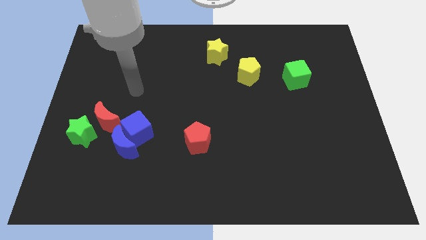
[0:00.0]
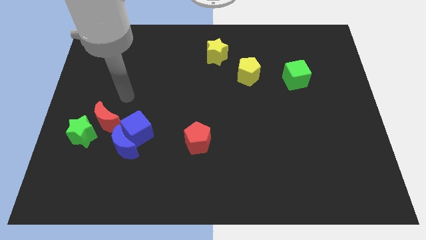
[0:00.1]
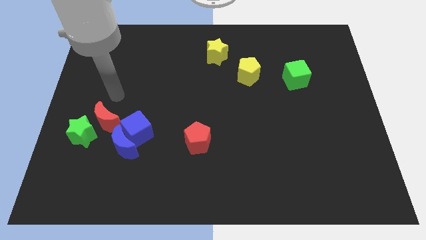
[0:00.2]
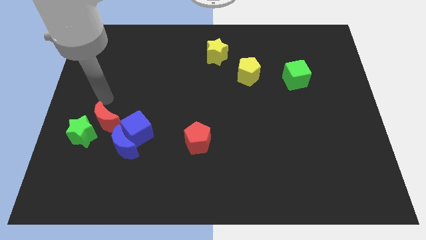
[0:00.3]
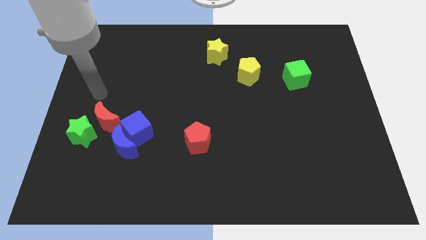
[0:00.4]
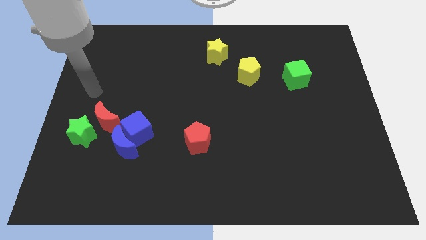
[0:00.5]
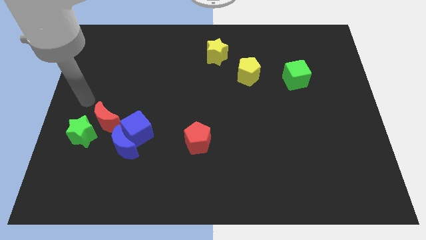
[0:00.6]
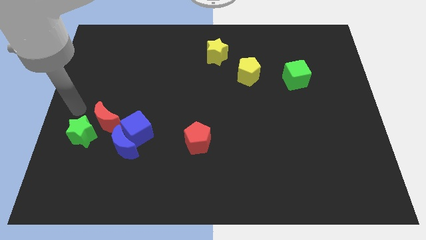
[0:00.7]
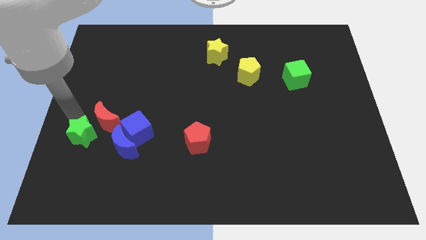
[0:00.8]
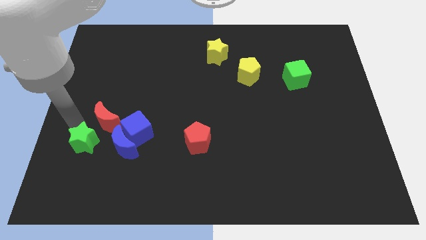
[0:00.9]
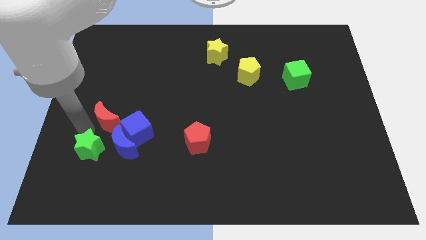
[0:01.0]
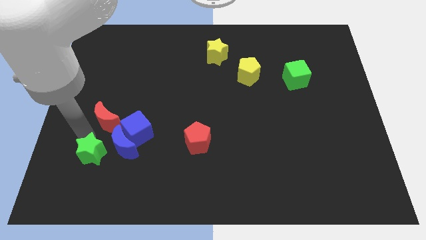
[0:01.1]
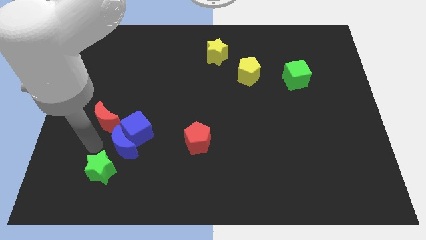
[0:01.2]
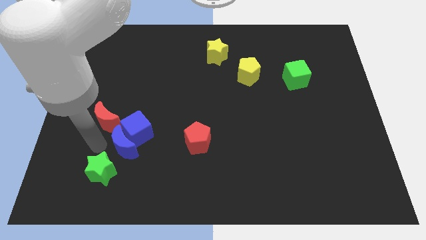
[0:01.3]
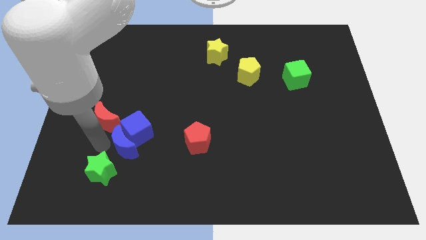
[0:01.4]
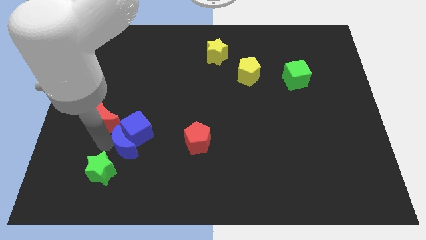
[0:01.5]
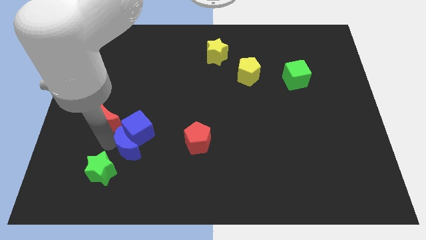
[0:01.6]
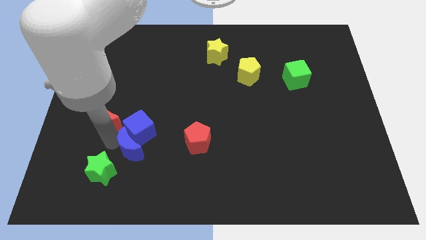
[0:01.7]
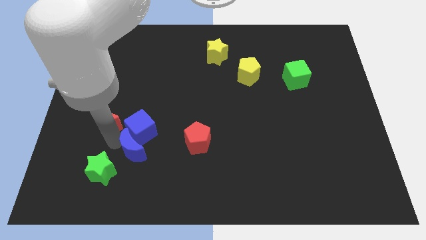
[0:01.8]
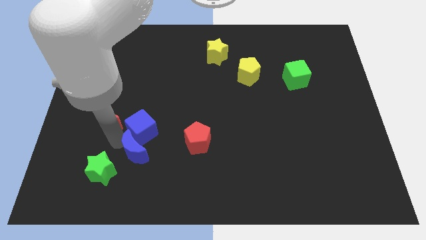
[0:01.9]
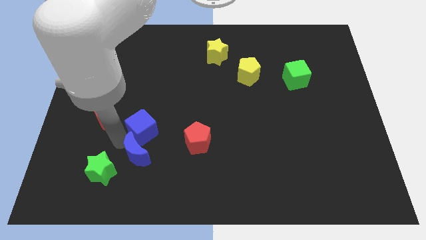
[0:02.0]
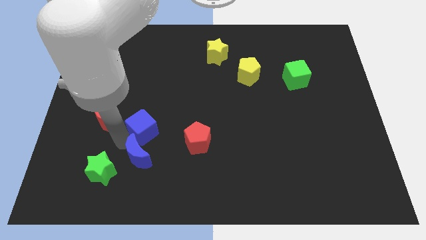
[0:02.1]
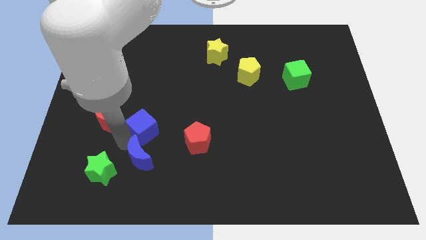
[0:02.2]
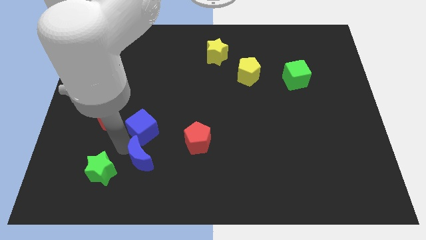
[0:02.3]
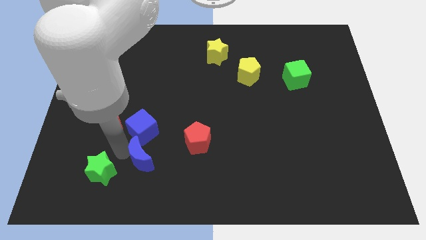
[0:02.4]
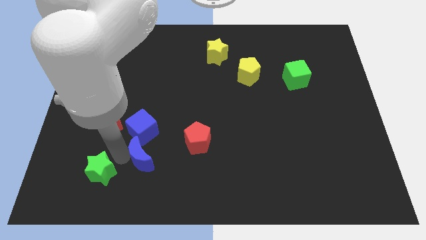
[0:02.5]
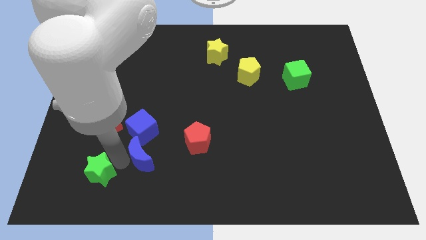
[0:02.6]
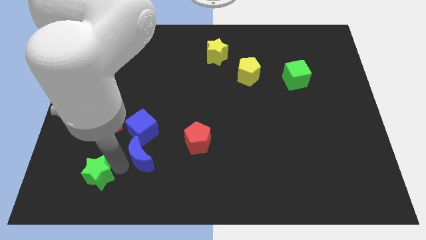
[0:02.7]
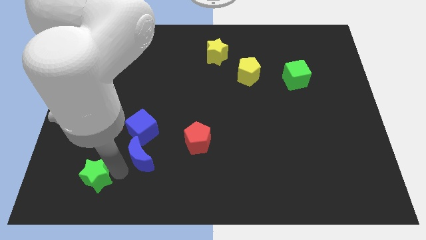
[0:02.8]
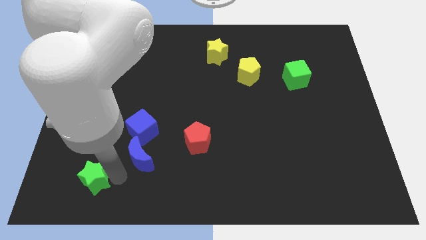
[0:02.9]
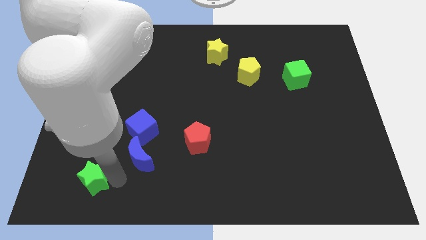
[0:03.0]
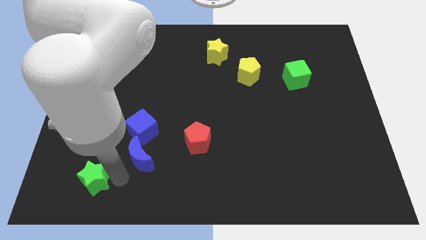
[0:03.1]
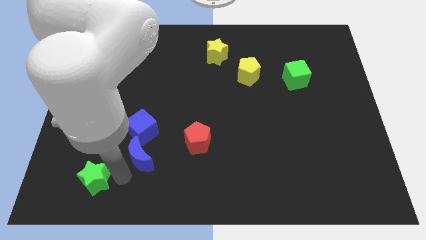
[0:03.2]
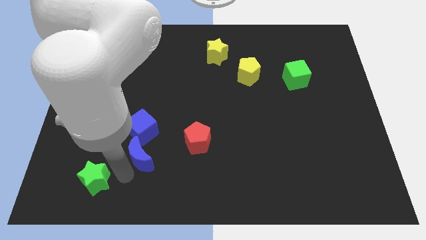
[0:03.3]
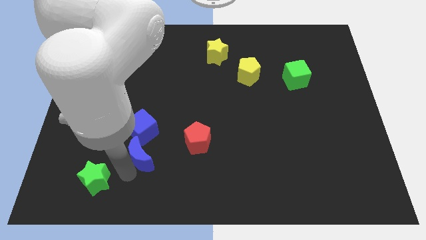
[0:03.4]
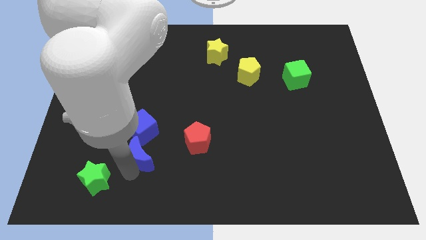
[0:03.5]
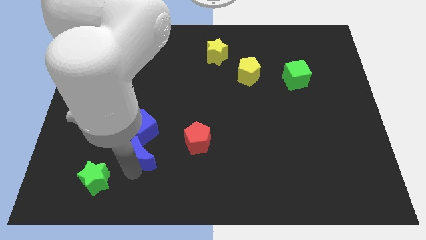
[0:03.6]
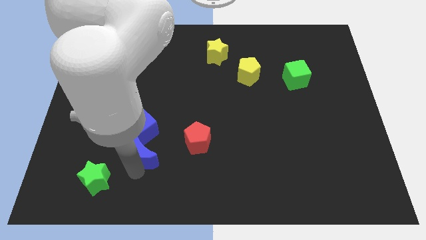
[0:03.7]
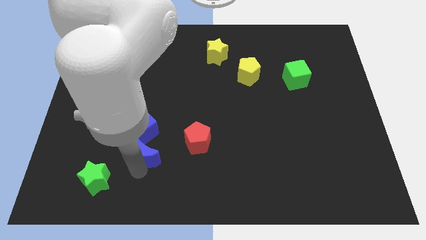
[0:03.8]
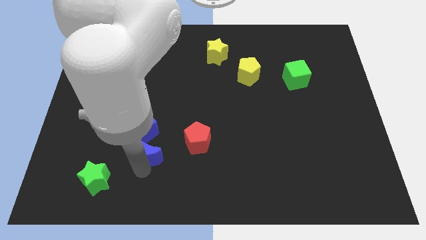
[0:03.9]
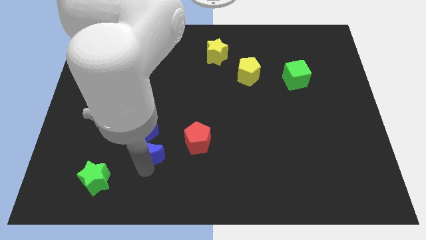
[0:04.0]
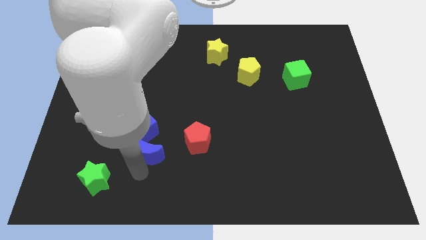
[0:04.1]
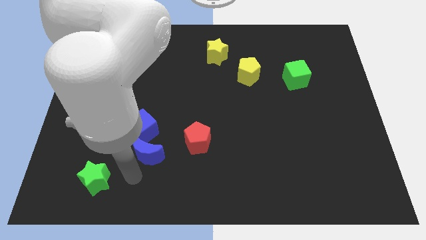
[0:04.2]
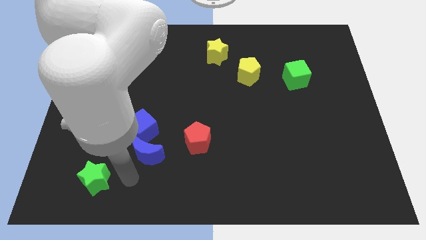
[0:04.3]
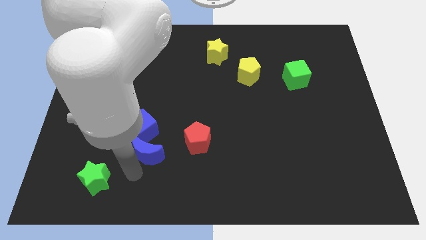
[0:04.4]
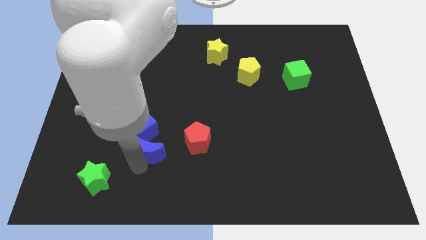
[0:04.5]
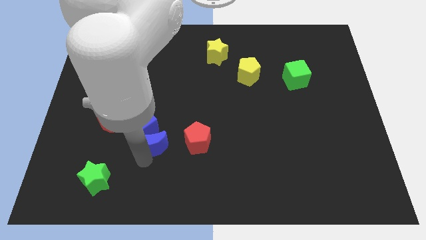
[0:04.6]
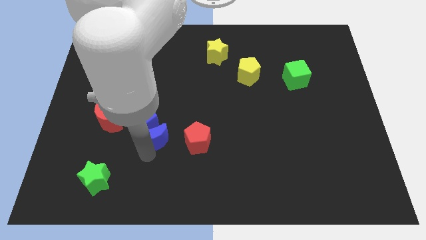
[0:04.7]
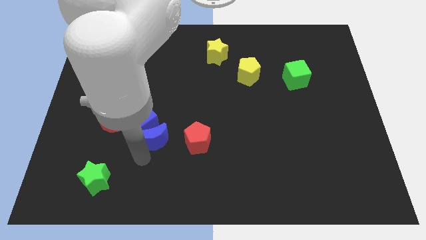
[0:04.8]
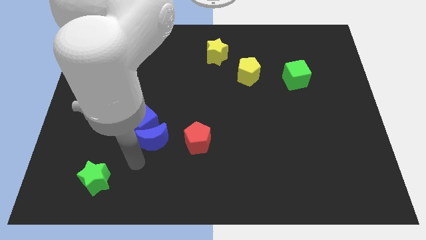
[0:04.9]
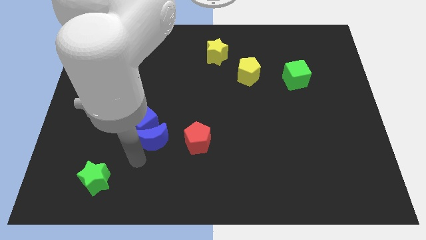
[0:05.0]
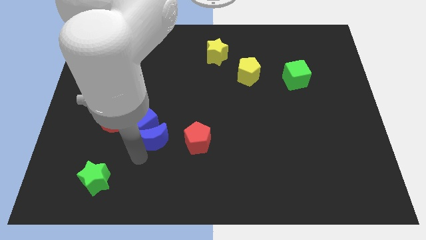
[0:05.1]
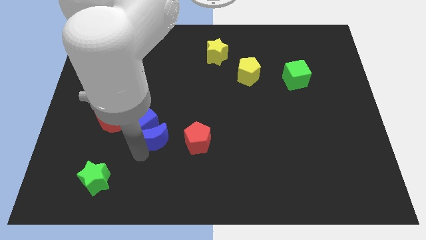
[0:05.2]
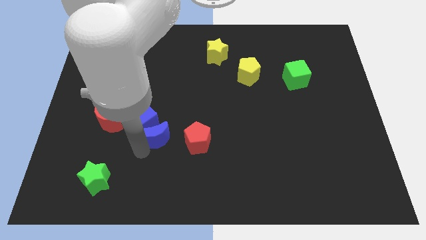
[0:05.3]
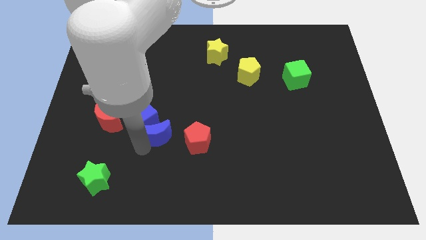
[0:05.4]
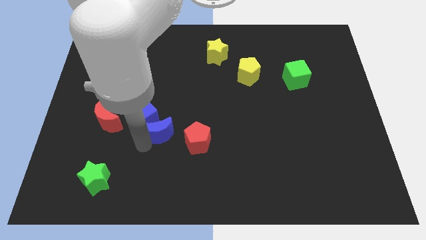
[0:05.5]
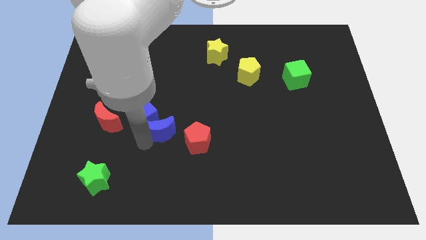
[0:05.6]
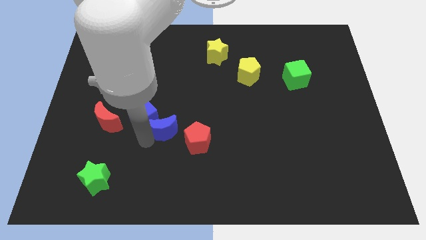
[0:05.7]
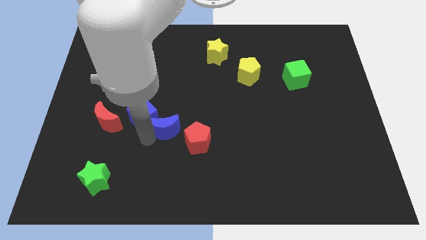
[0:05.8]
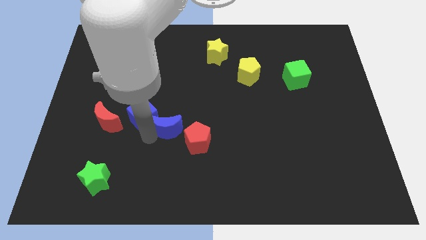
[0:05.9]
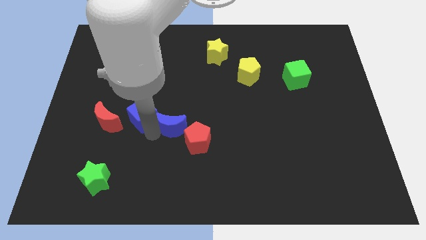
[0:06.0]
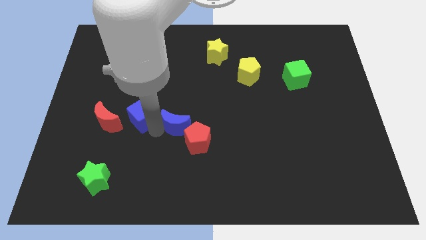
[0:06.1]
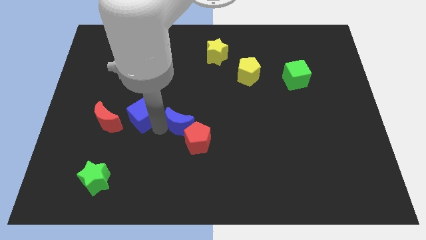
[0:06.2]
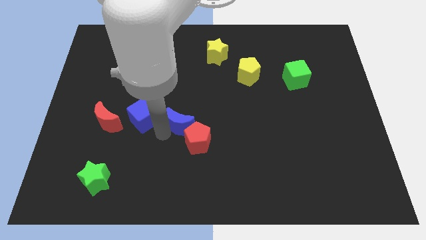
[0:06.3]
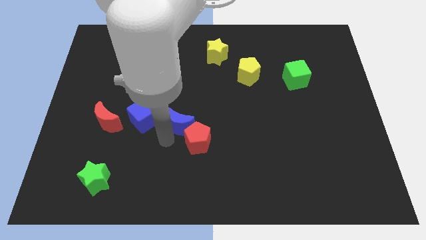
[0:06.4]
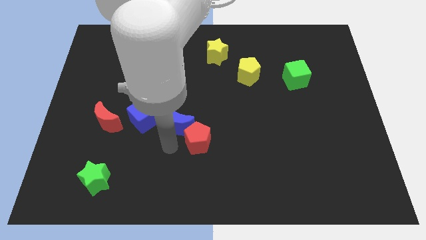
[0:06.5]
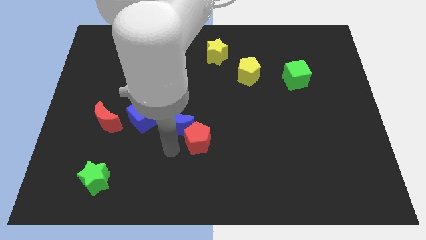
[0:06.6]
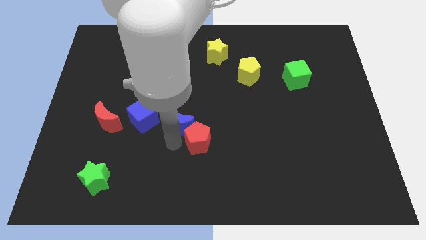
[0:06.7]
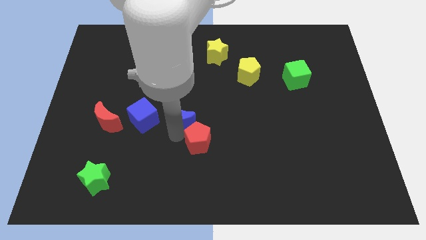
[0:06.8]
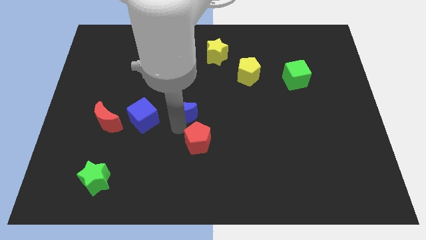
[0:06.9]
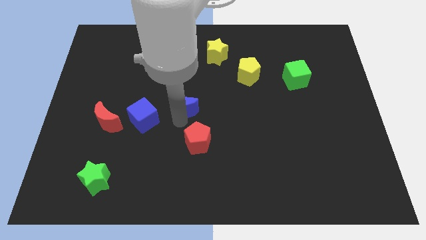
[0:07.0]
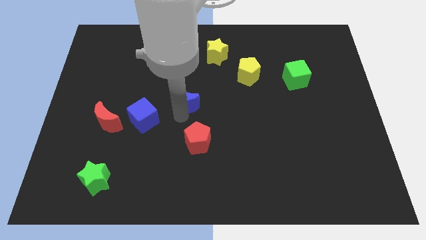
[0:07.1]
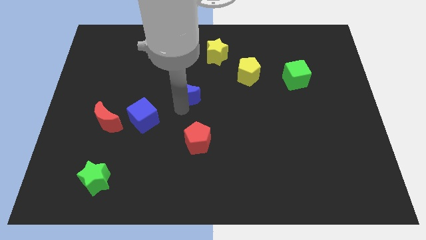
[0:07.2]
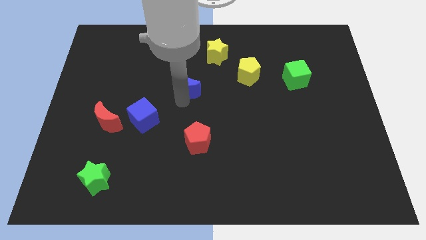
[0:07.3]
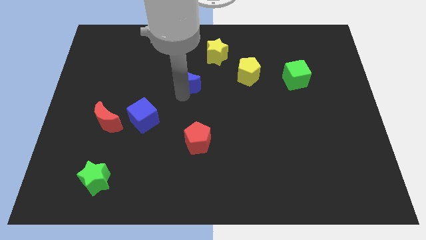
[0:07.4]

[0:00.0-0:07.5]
move the blue moon just left of the yellow pentagon
